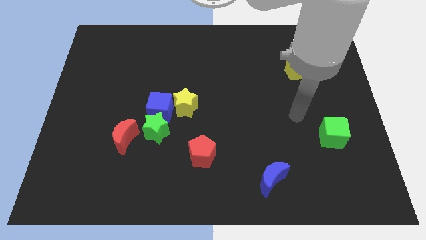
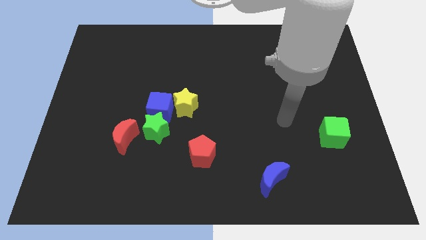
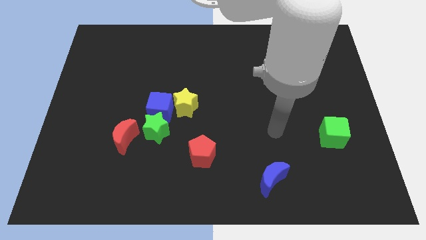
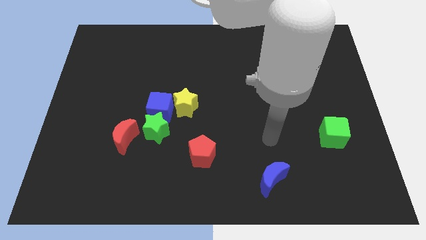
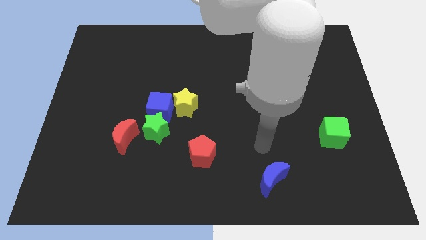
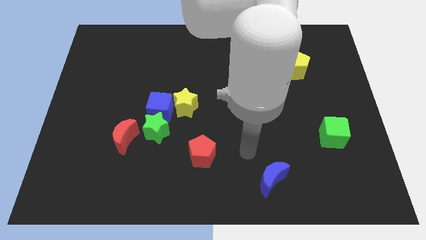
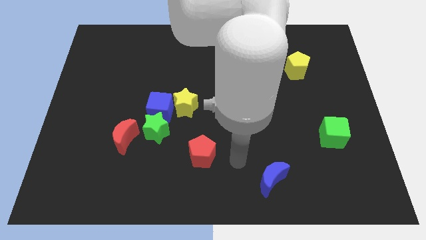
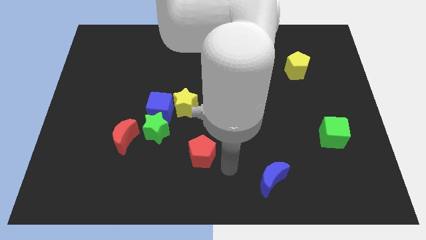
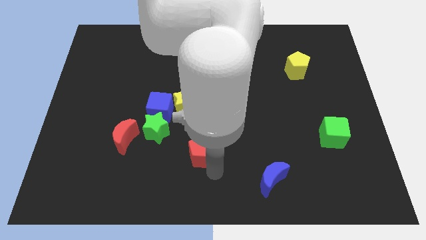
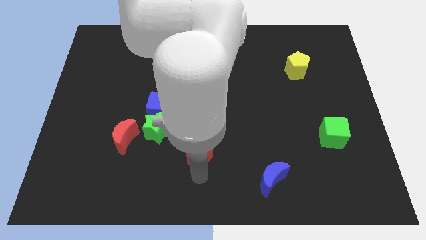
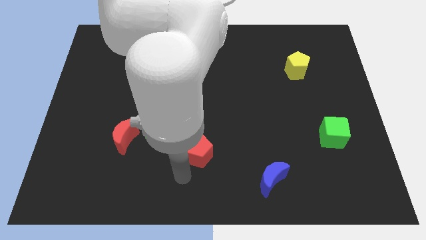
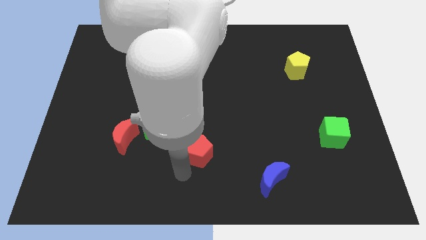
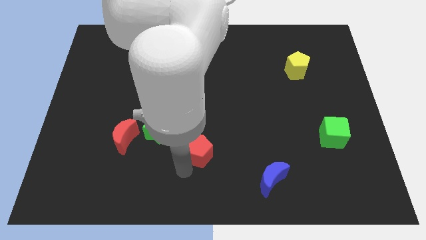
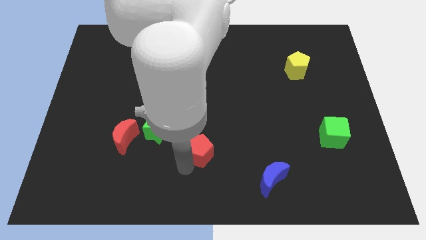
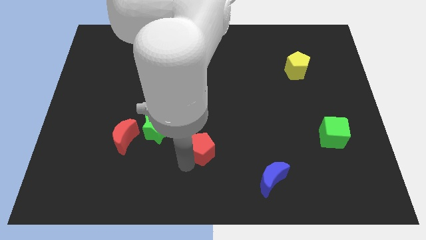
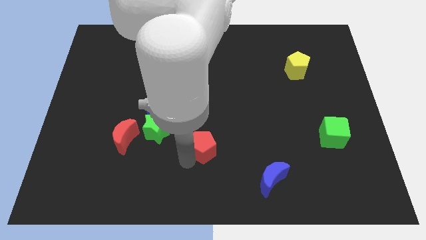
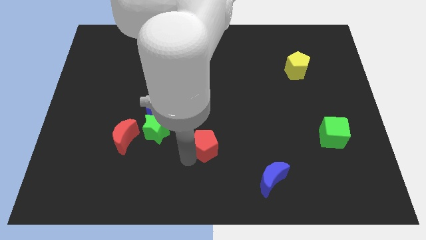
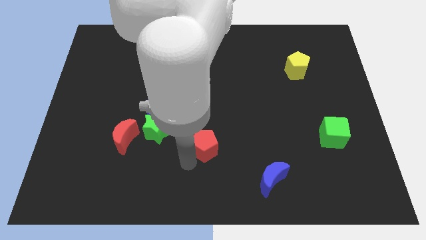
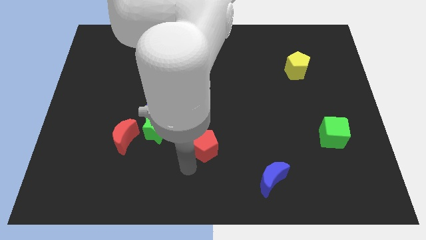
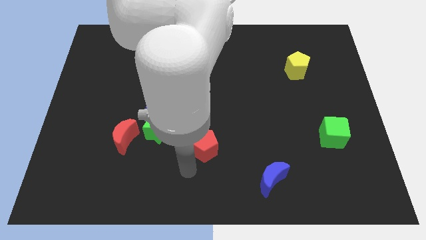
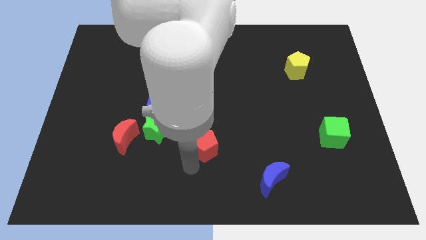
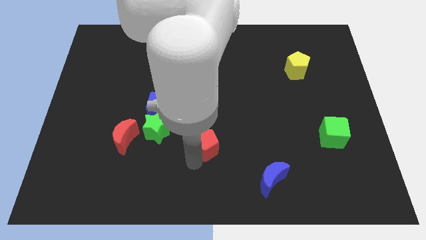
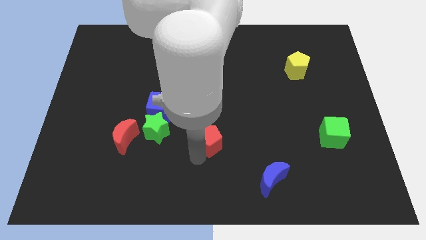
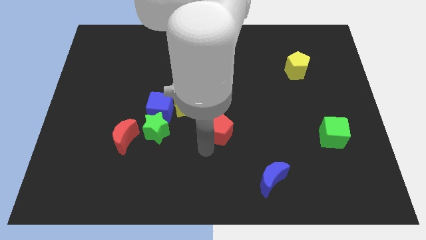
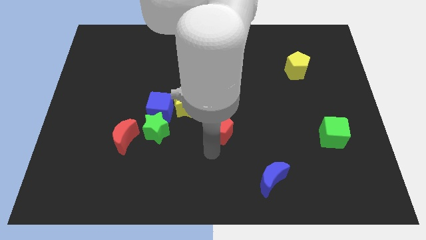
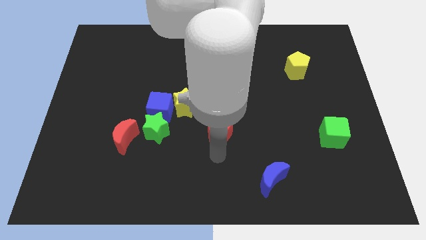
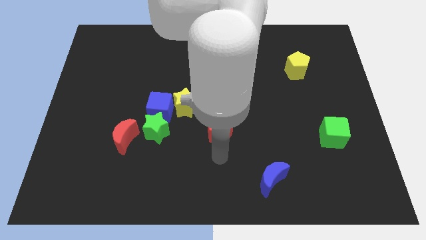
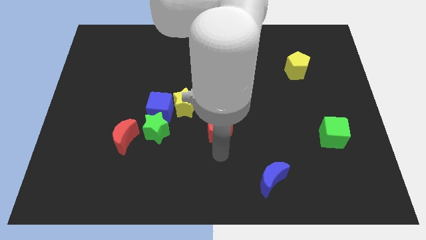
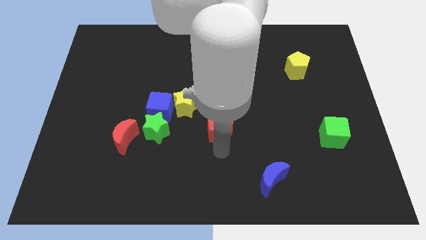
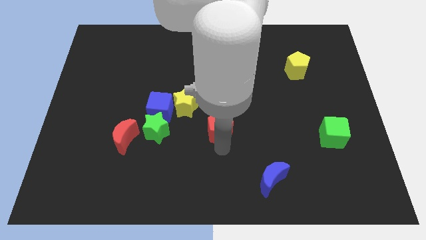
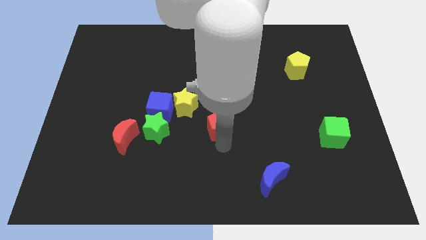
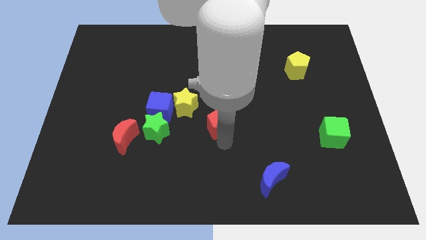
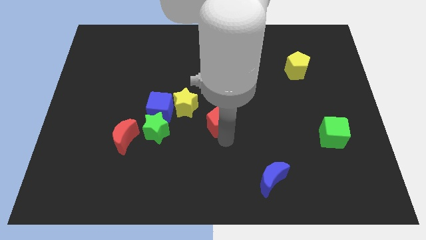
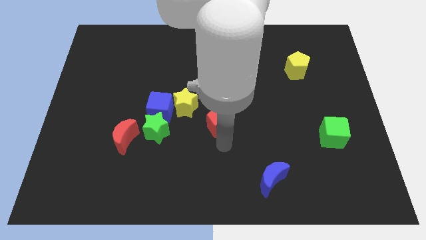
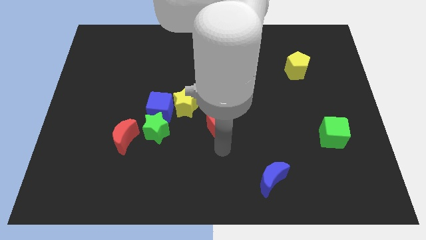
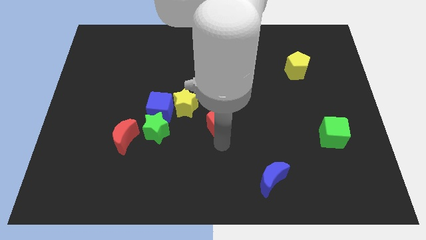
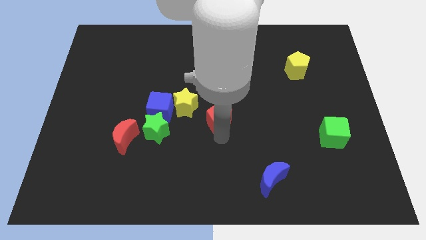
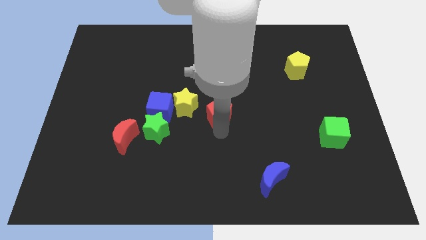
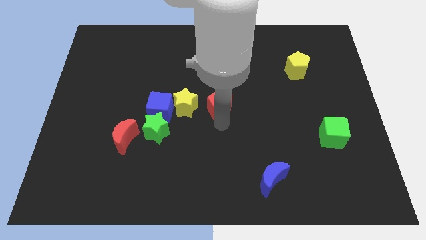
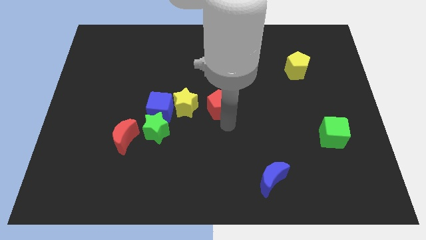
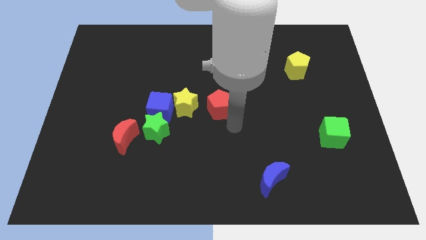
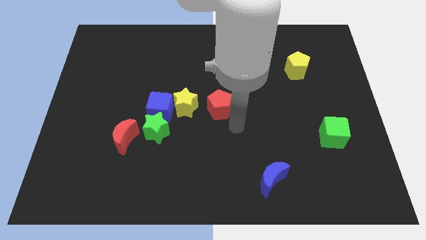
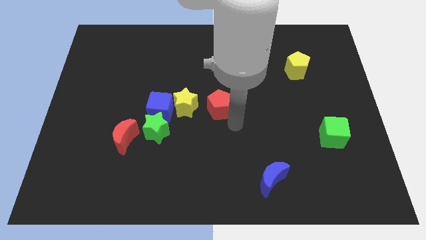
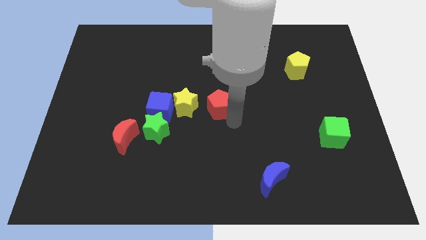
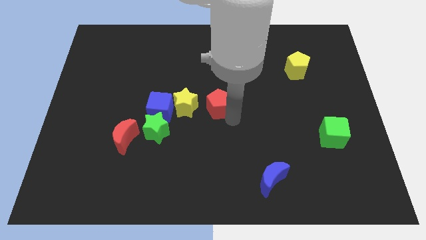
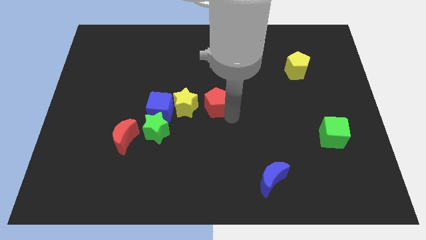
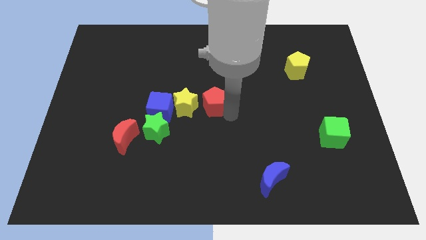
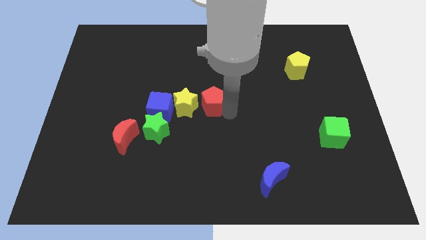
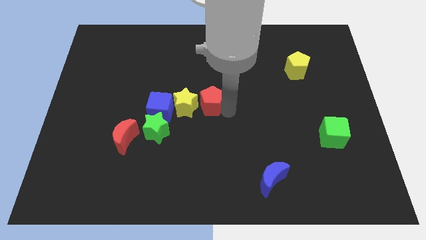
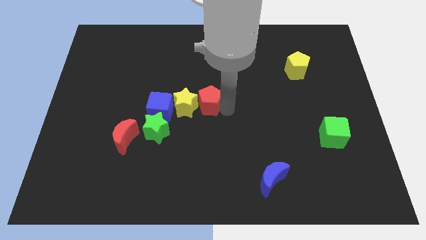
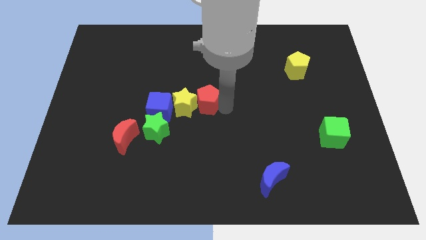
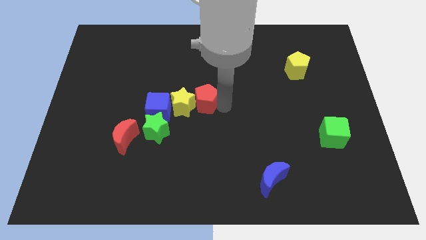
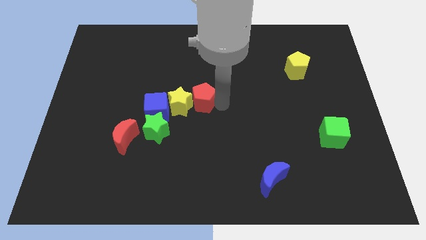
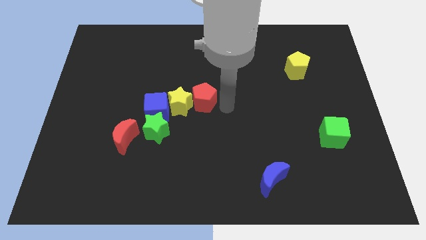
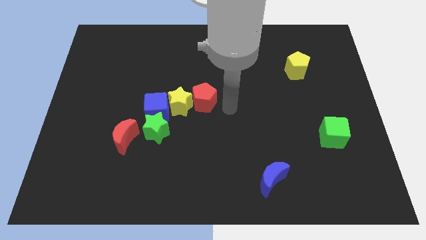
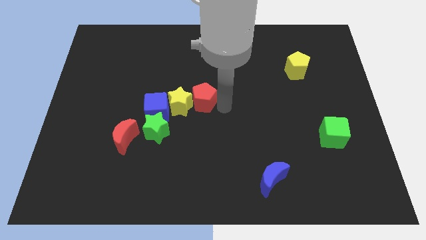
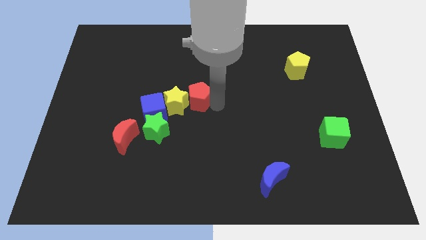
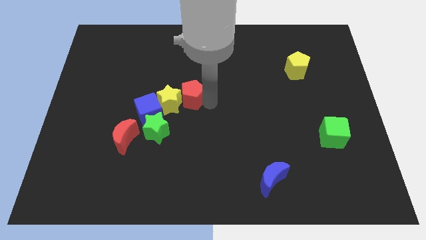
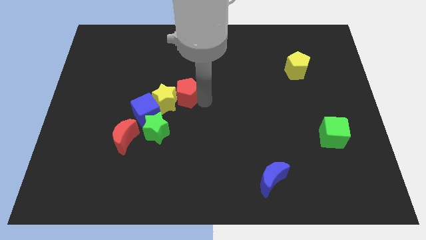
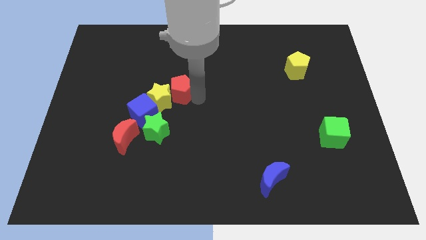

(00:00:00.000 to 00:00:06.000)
push the red pentagon to the top of the green star
